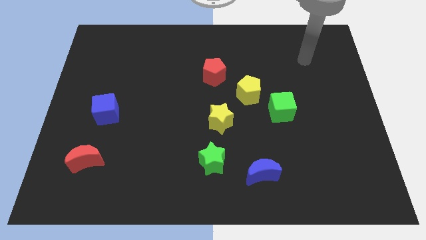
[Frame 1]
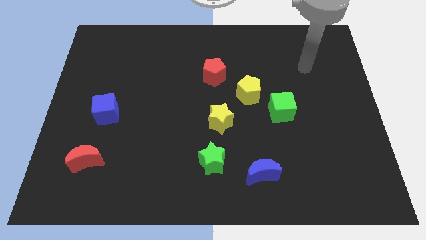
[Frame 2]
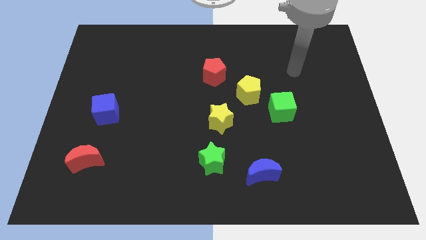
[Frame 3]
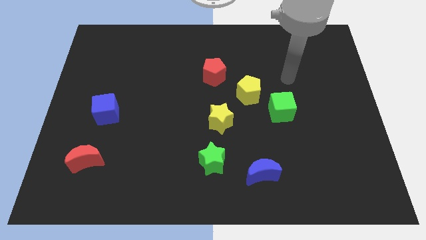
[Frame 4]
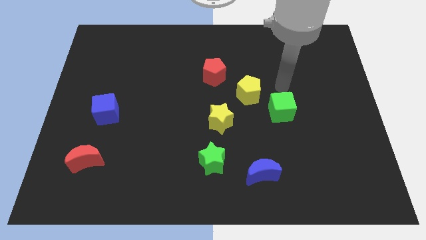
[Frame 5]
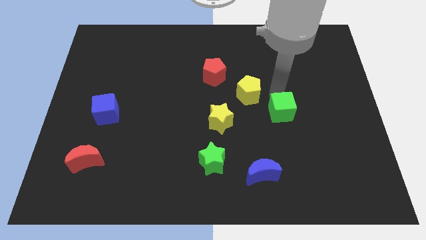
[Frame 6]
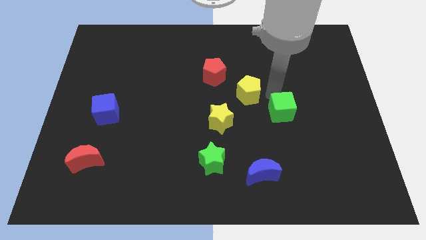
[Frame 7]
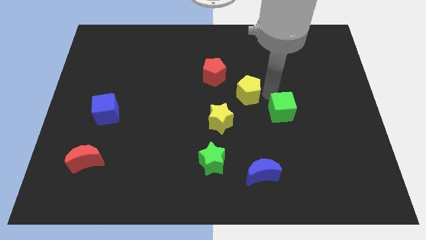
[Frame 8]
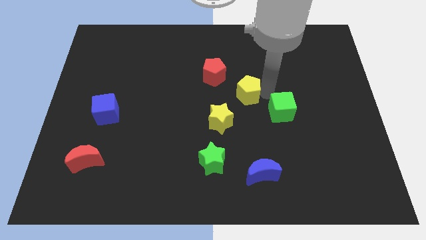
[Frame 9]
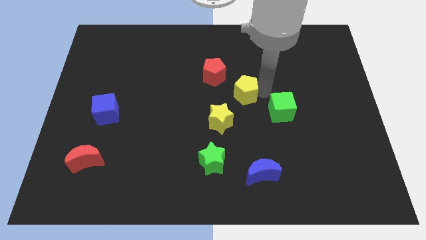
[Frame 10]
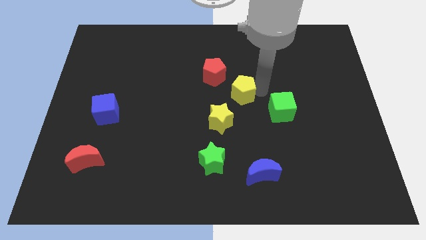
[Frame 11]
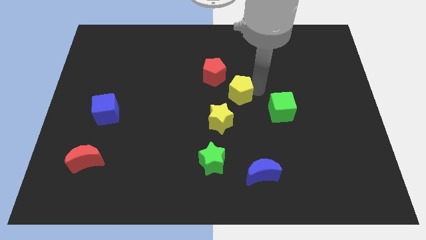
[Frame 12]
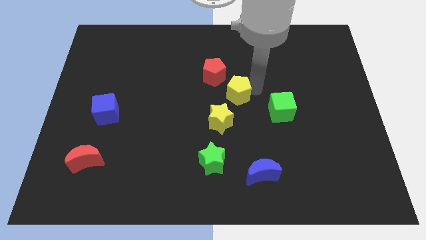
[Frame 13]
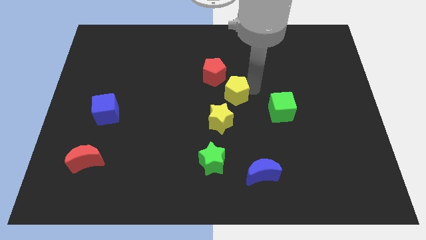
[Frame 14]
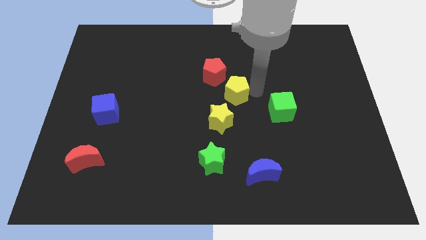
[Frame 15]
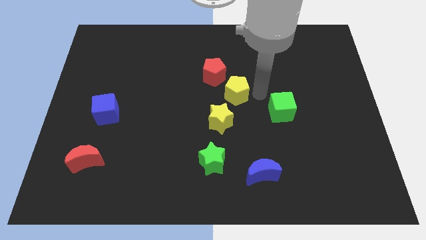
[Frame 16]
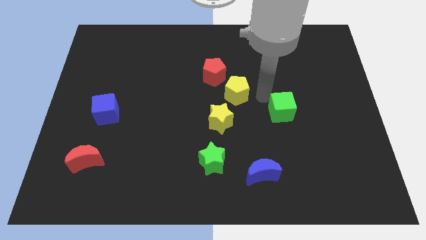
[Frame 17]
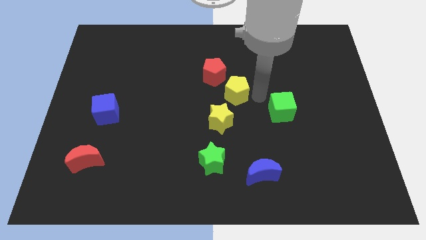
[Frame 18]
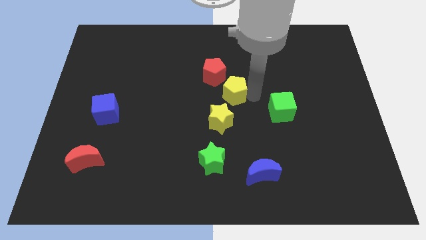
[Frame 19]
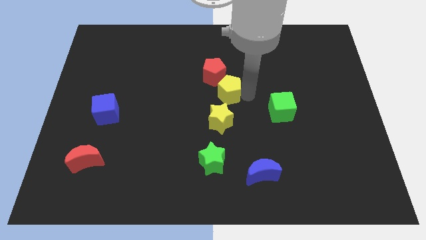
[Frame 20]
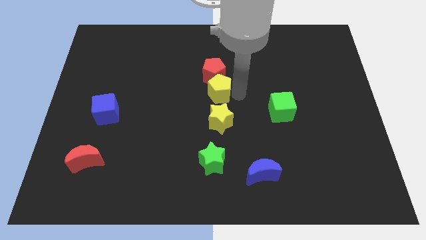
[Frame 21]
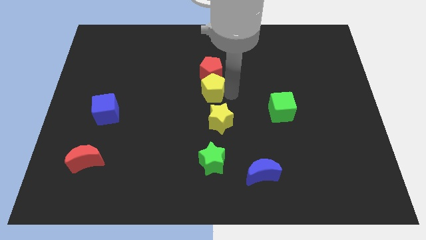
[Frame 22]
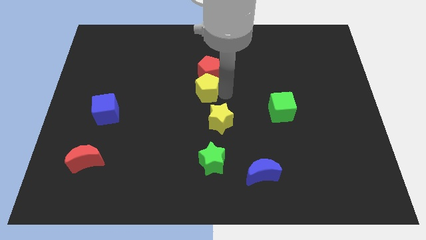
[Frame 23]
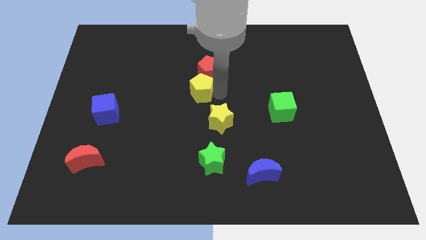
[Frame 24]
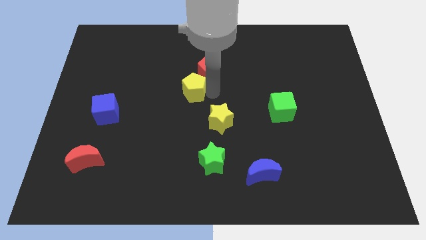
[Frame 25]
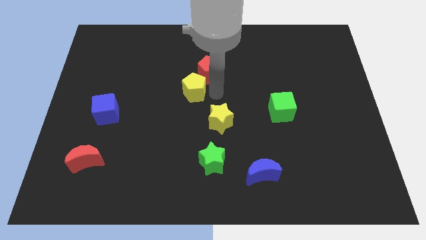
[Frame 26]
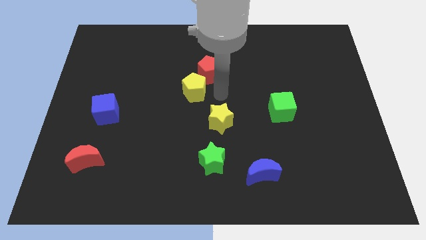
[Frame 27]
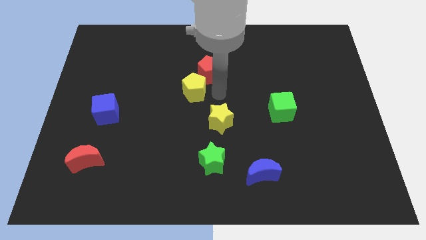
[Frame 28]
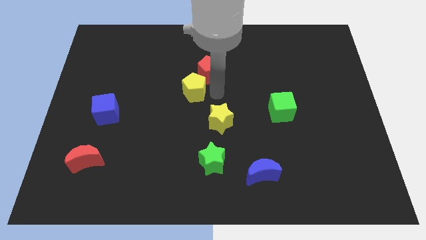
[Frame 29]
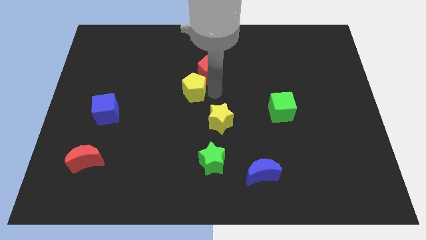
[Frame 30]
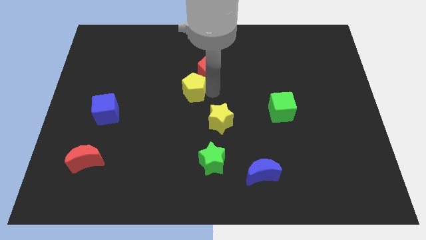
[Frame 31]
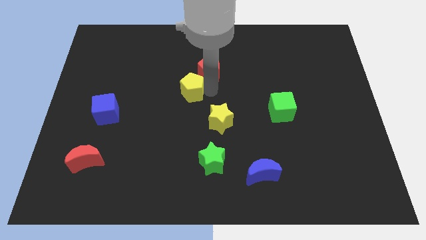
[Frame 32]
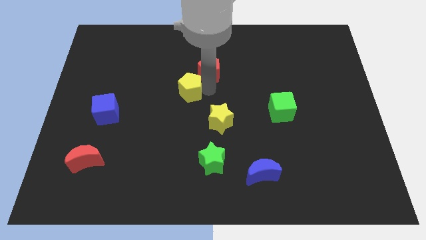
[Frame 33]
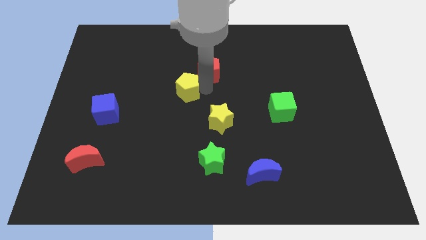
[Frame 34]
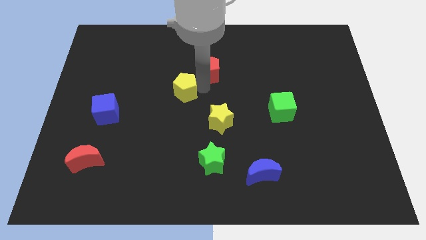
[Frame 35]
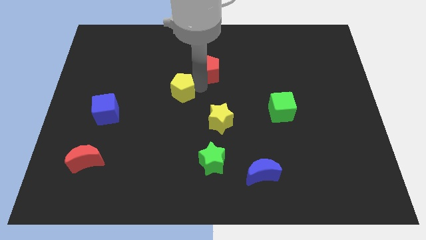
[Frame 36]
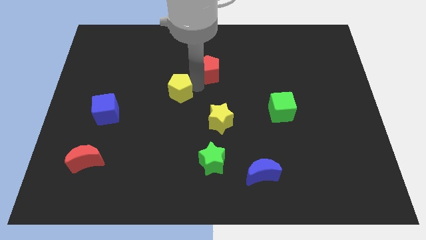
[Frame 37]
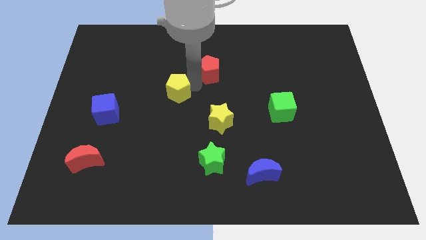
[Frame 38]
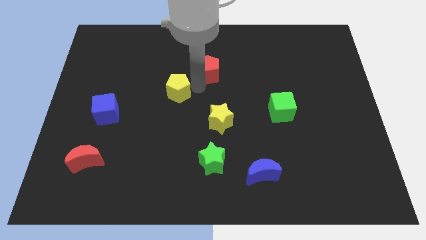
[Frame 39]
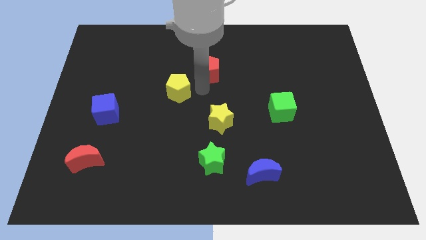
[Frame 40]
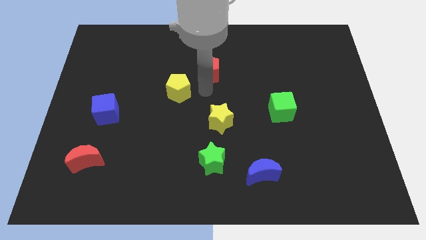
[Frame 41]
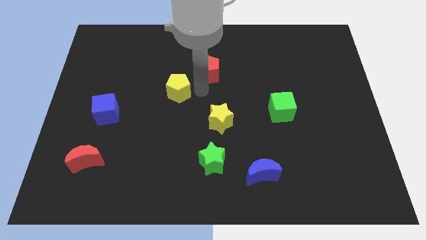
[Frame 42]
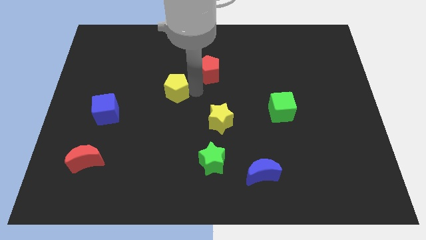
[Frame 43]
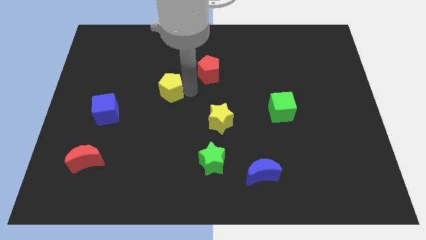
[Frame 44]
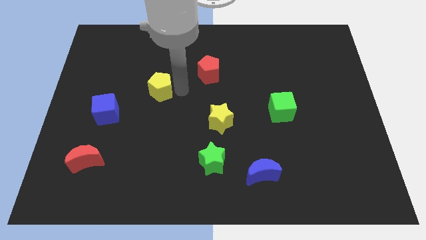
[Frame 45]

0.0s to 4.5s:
push the yellow pentagon to the left

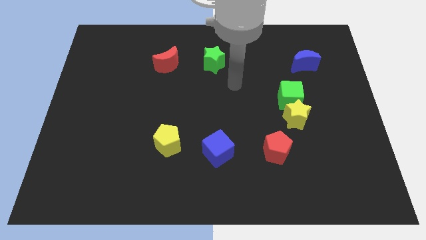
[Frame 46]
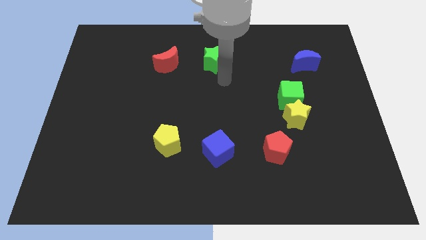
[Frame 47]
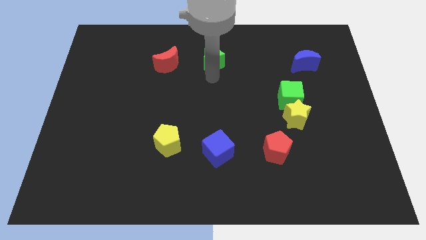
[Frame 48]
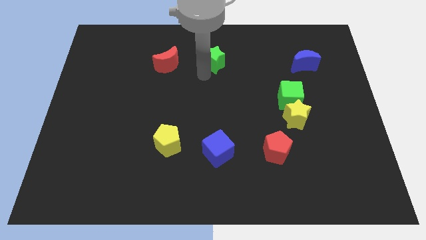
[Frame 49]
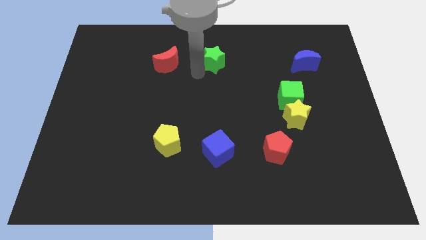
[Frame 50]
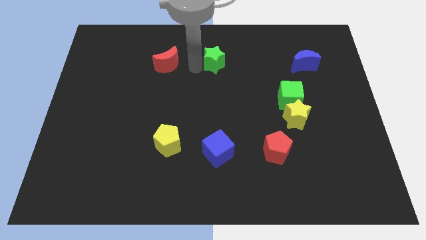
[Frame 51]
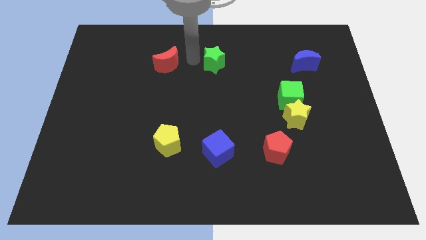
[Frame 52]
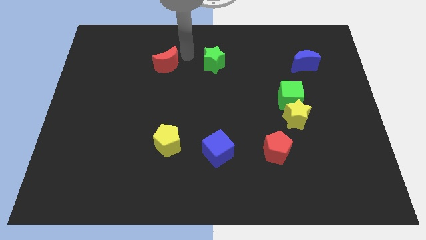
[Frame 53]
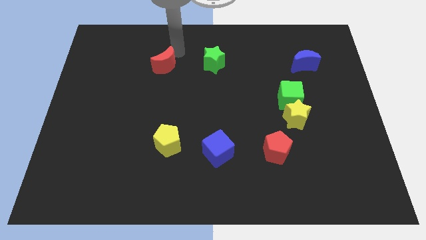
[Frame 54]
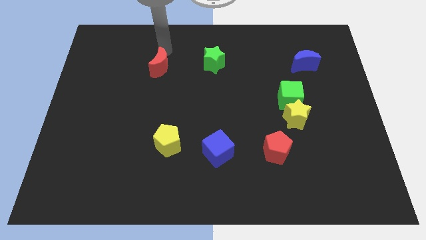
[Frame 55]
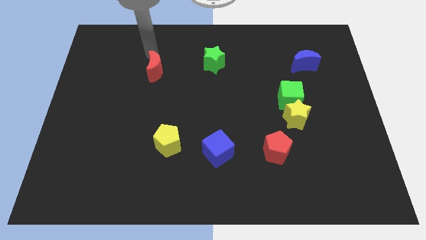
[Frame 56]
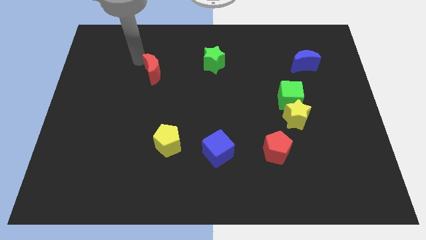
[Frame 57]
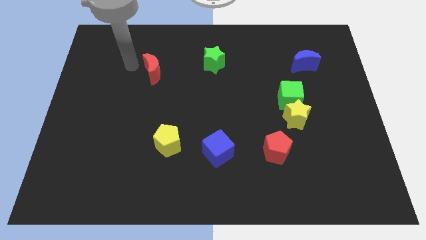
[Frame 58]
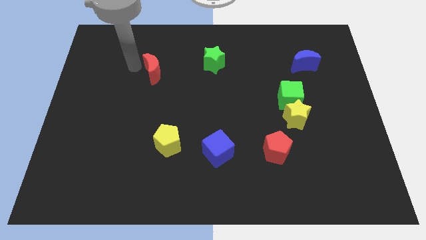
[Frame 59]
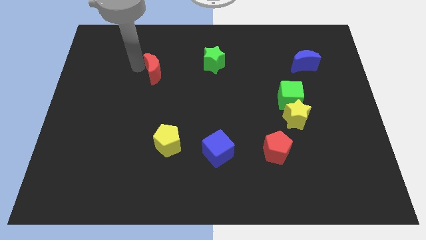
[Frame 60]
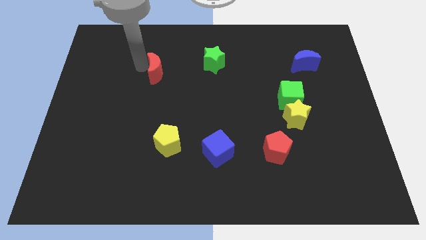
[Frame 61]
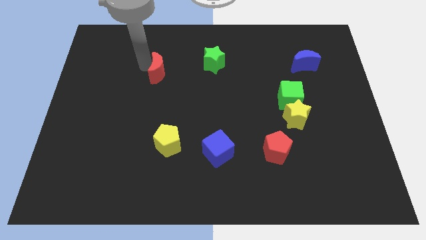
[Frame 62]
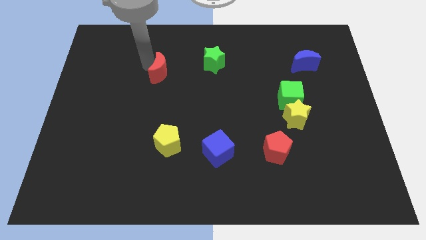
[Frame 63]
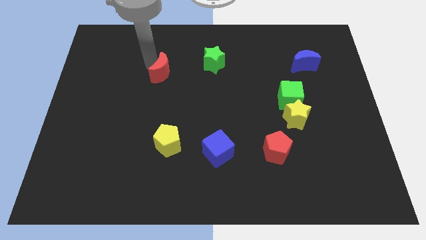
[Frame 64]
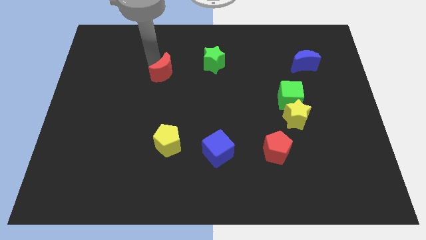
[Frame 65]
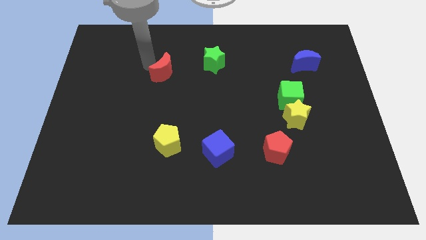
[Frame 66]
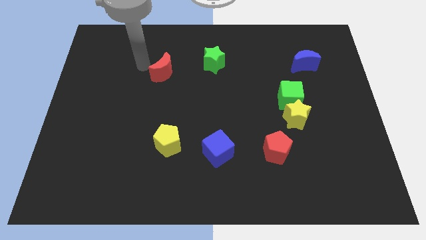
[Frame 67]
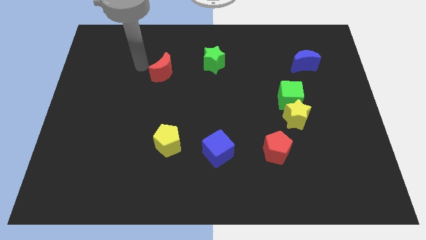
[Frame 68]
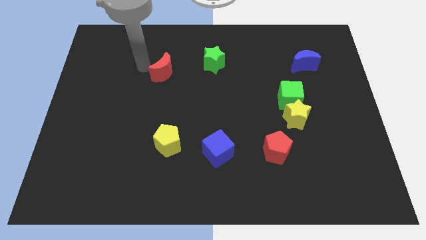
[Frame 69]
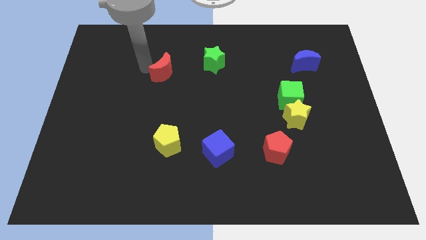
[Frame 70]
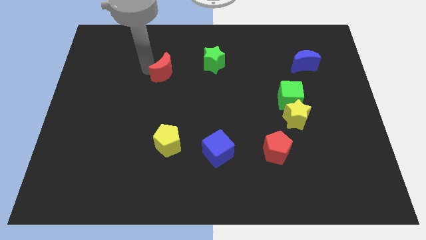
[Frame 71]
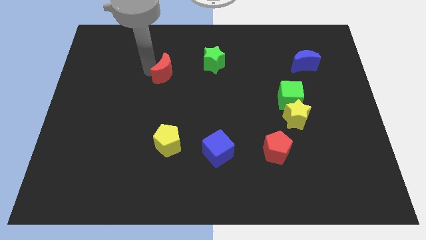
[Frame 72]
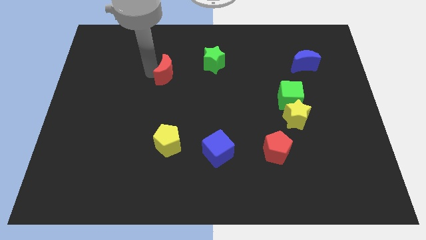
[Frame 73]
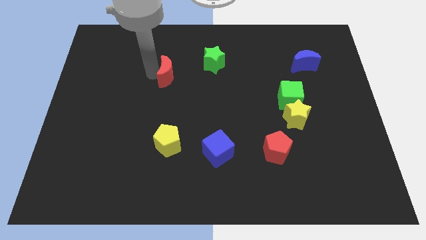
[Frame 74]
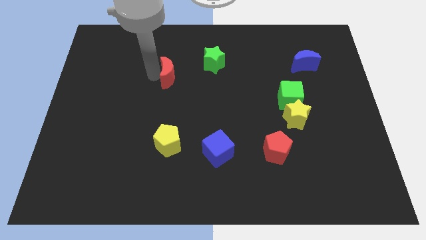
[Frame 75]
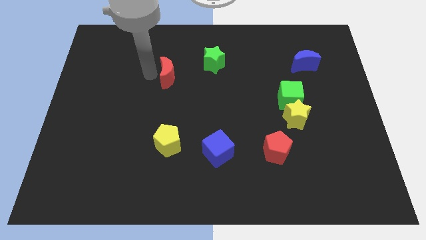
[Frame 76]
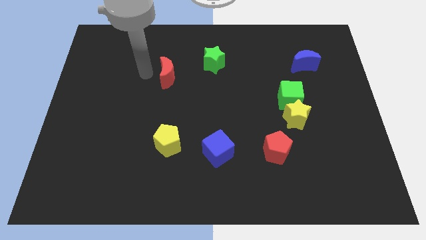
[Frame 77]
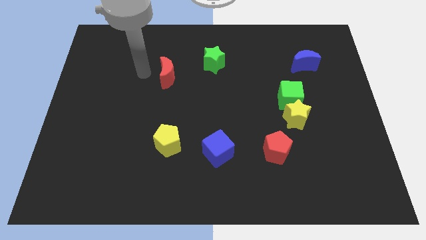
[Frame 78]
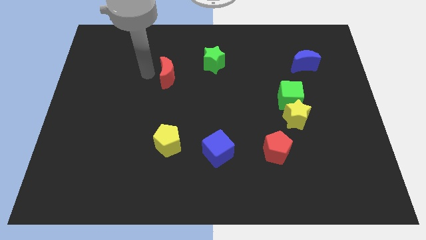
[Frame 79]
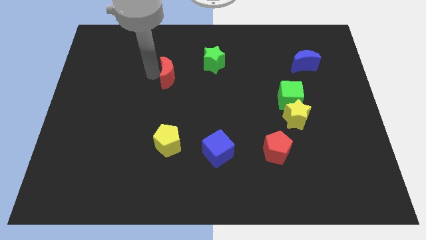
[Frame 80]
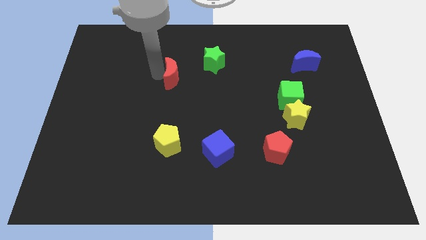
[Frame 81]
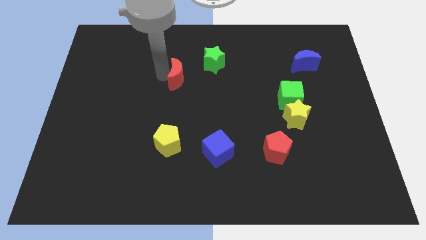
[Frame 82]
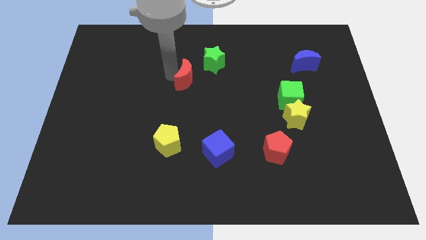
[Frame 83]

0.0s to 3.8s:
push the red moon a little diagonally down and to the right
